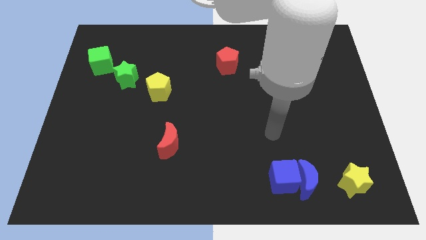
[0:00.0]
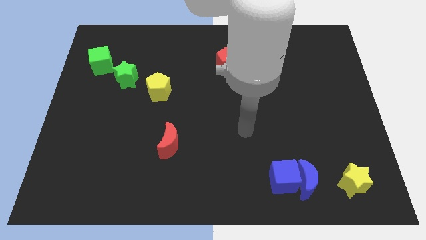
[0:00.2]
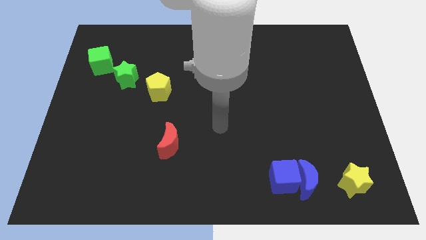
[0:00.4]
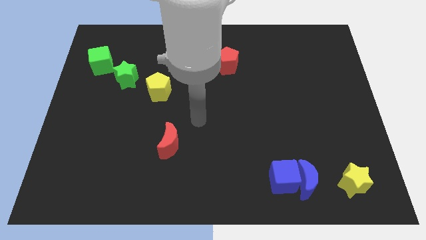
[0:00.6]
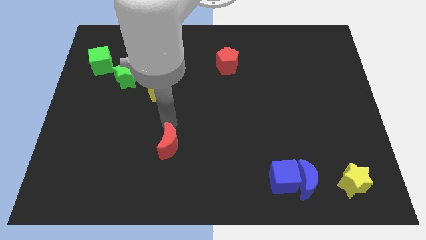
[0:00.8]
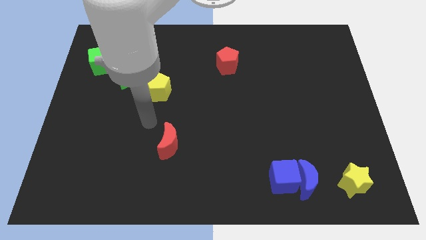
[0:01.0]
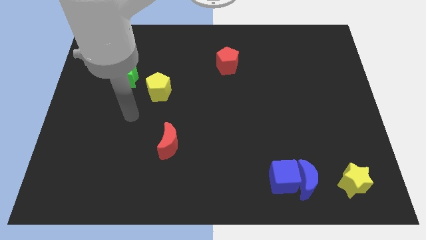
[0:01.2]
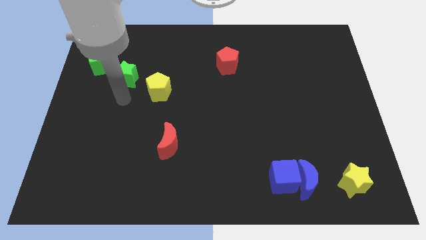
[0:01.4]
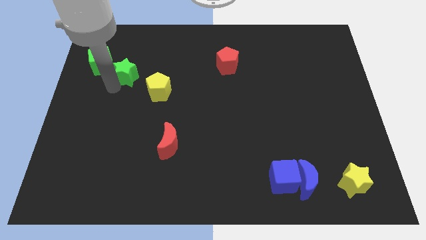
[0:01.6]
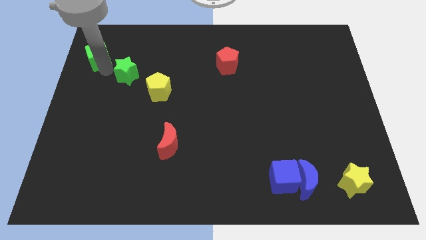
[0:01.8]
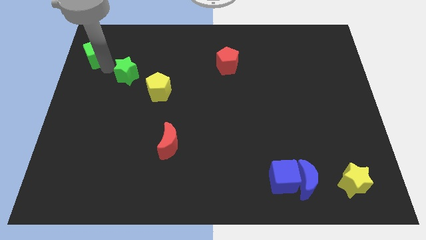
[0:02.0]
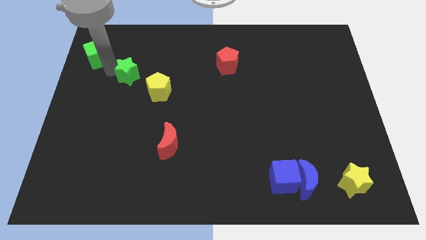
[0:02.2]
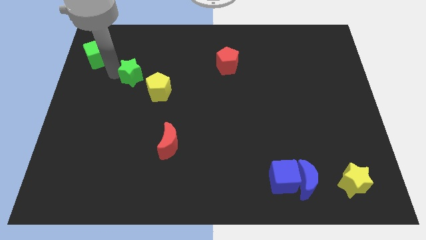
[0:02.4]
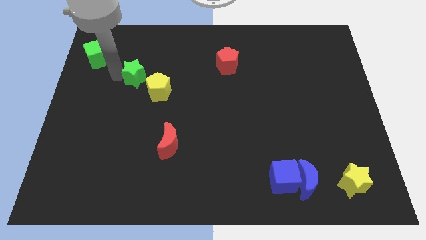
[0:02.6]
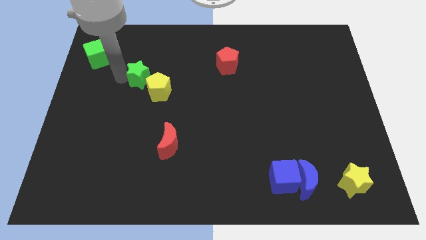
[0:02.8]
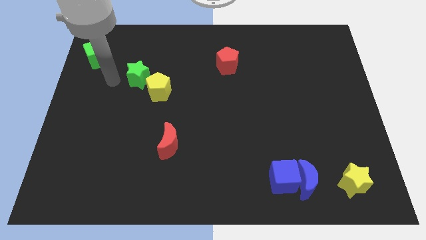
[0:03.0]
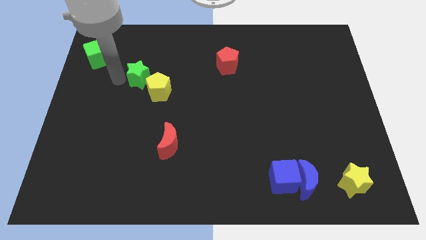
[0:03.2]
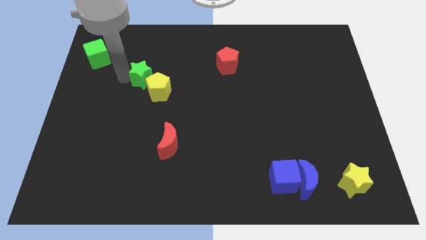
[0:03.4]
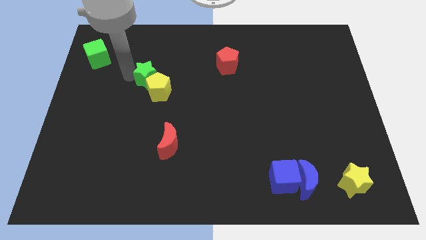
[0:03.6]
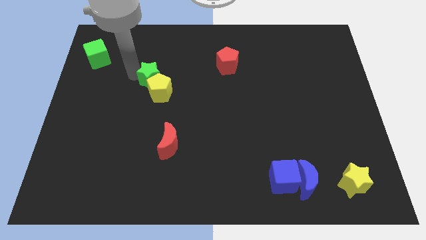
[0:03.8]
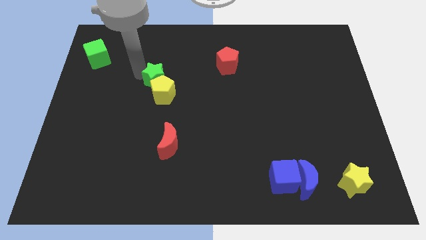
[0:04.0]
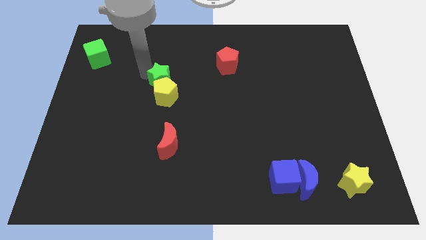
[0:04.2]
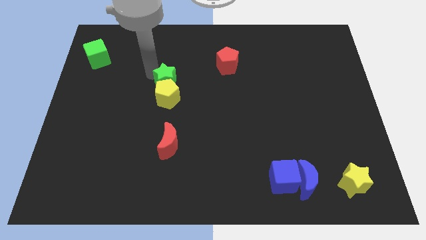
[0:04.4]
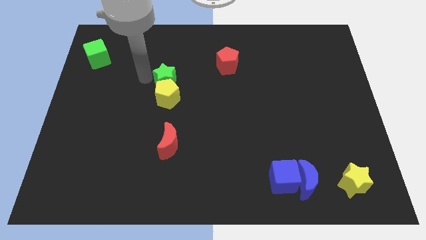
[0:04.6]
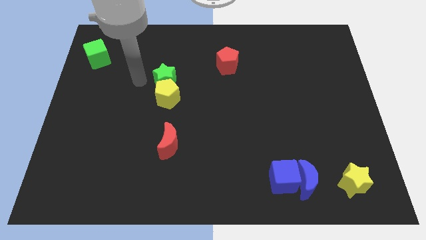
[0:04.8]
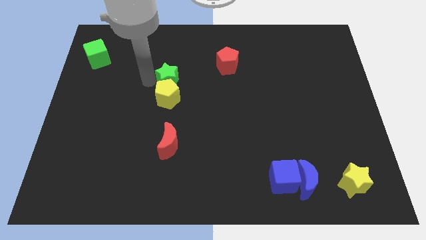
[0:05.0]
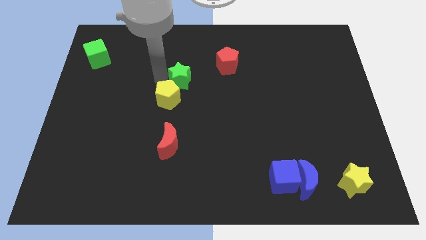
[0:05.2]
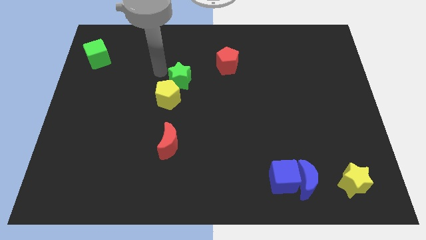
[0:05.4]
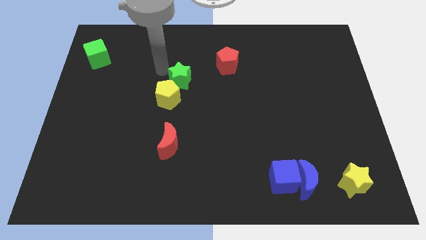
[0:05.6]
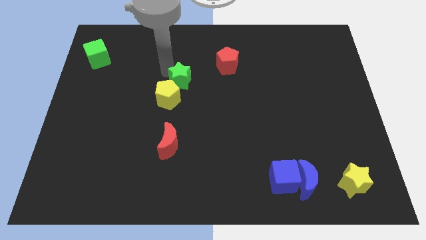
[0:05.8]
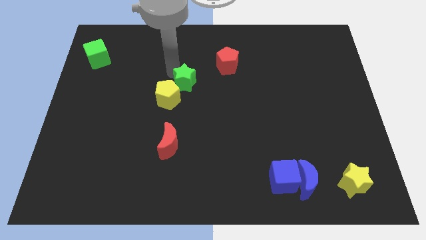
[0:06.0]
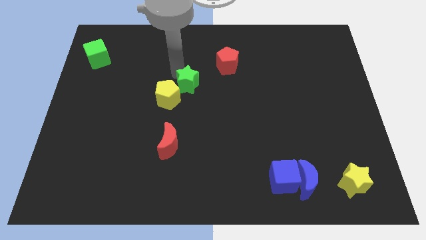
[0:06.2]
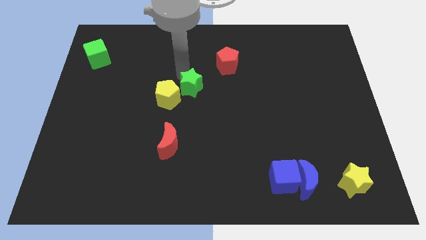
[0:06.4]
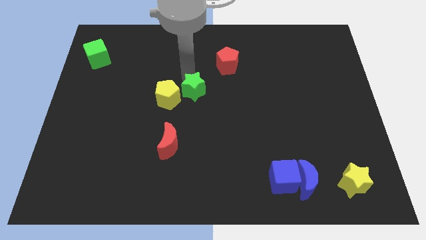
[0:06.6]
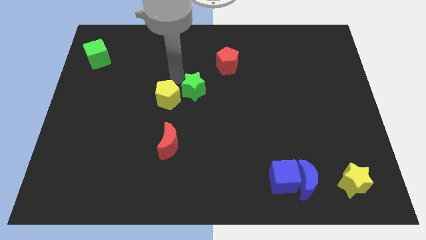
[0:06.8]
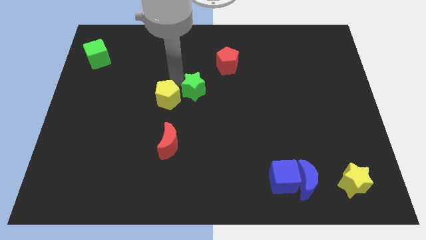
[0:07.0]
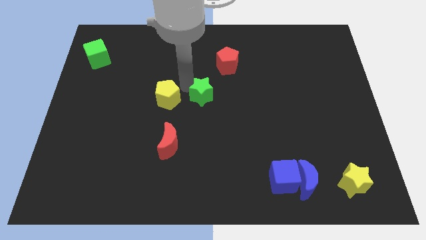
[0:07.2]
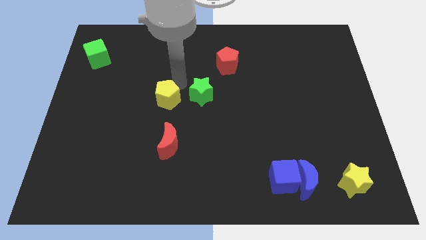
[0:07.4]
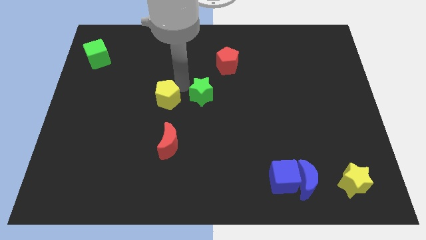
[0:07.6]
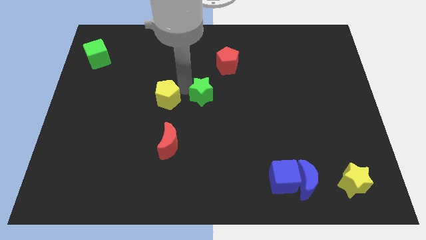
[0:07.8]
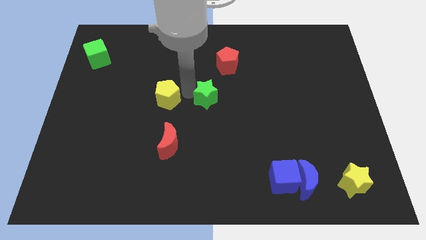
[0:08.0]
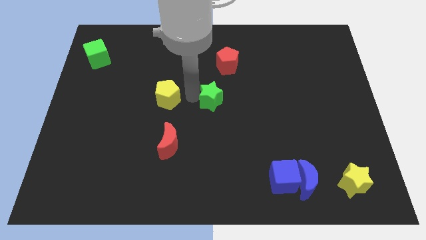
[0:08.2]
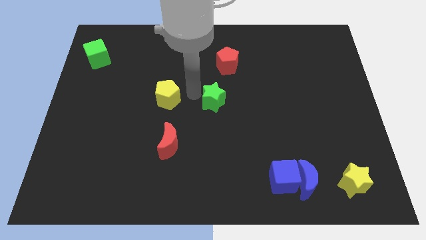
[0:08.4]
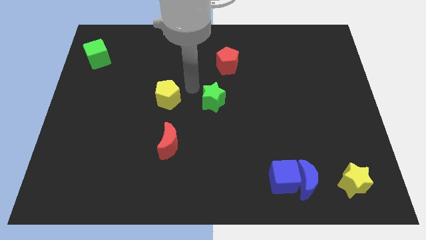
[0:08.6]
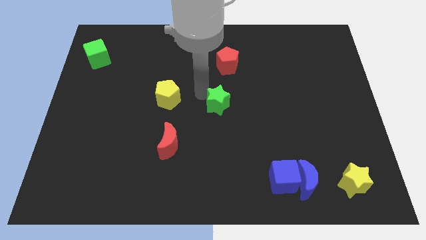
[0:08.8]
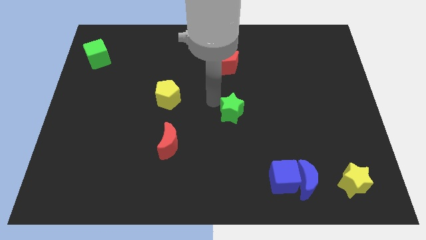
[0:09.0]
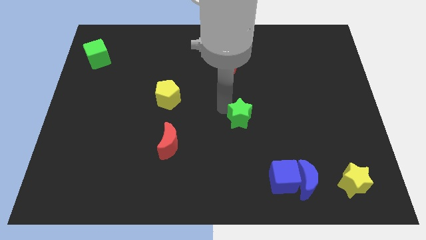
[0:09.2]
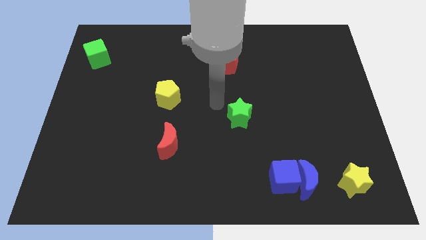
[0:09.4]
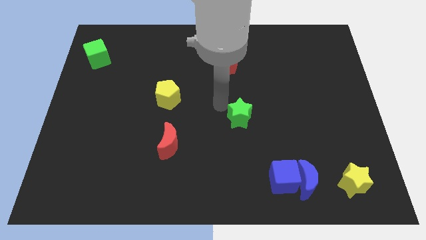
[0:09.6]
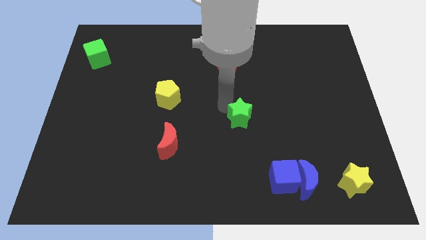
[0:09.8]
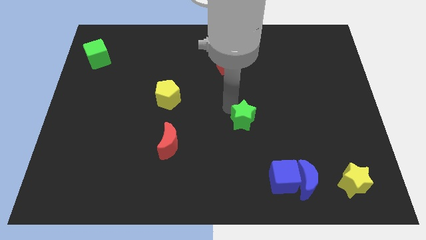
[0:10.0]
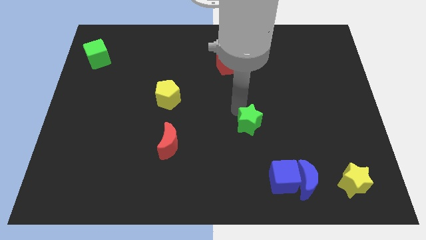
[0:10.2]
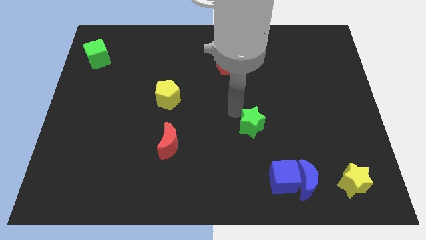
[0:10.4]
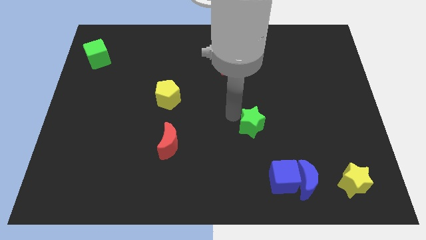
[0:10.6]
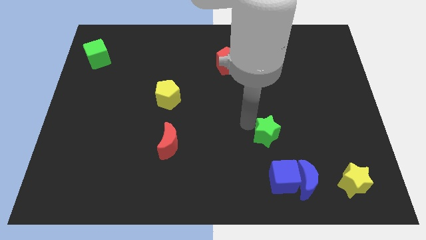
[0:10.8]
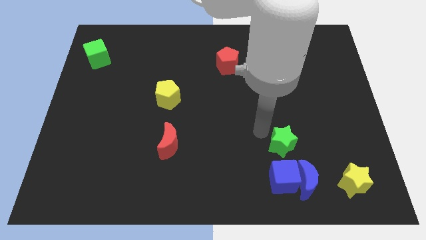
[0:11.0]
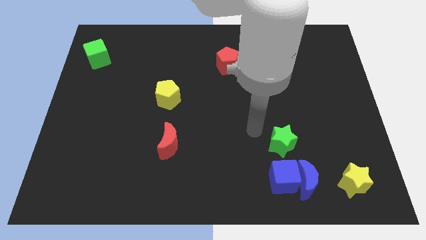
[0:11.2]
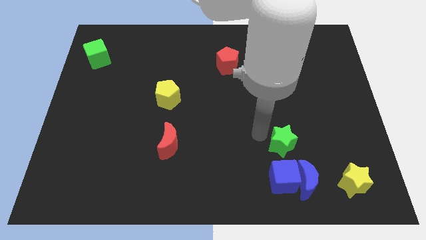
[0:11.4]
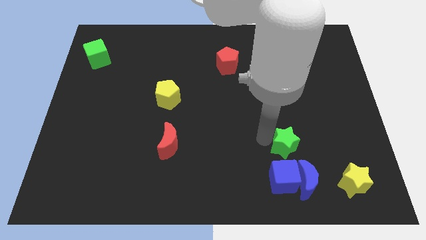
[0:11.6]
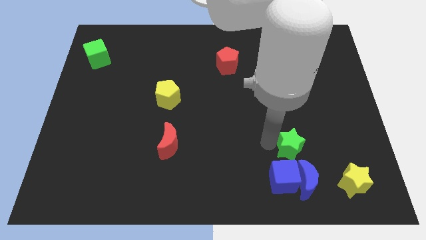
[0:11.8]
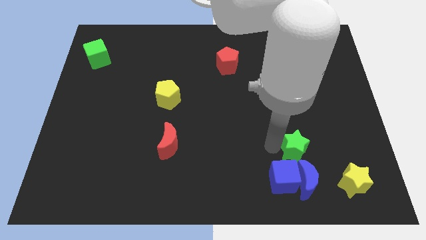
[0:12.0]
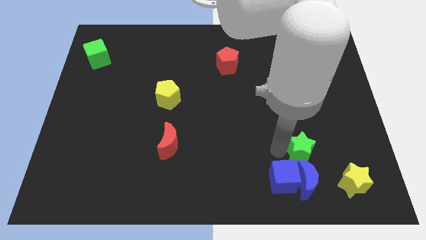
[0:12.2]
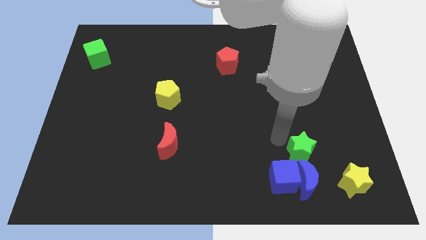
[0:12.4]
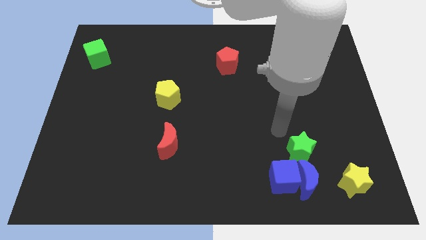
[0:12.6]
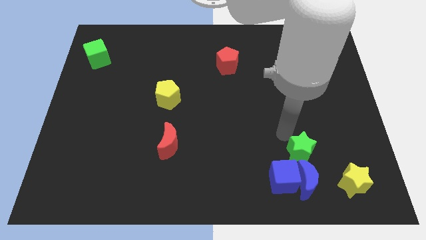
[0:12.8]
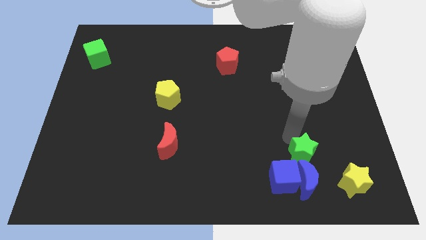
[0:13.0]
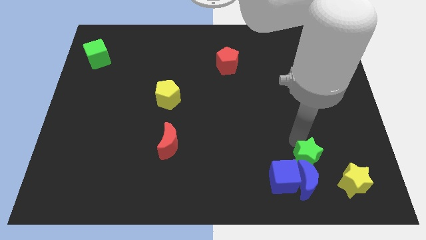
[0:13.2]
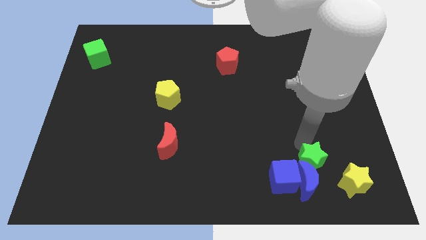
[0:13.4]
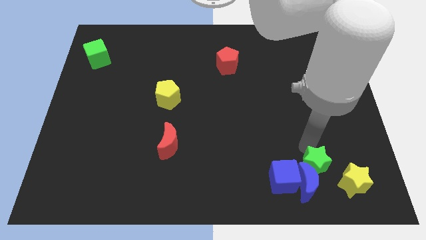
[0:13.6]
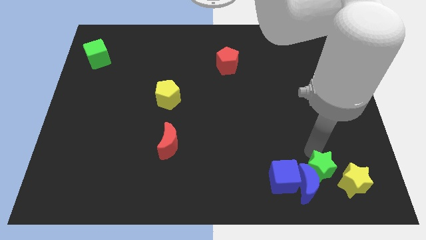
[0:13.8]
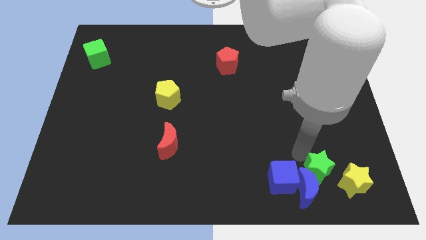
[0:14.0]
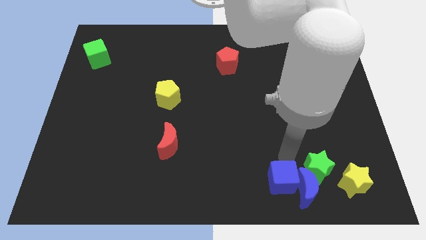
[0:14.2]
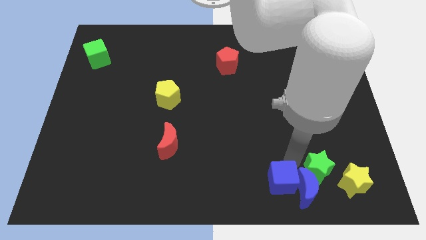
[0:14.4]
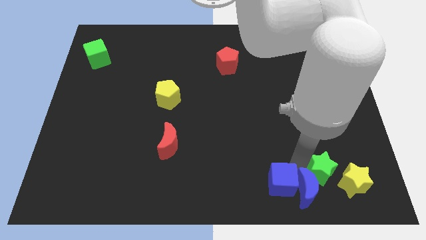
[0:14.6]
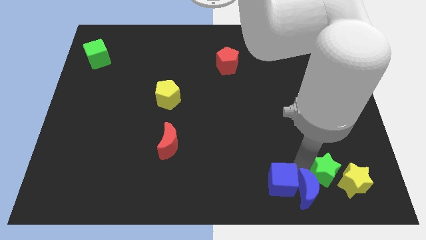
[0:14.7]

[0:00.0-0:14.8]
put the green star close to the yellow star
